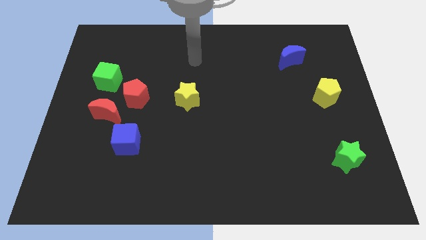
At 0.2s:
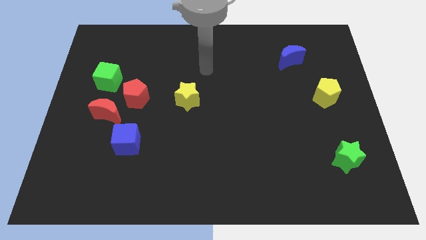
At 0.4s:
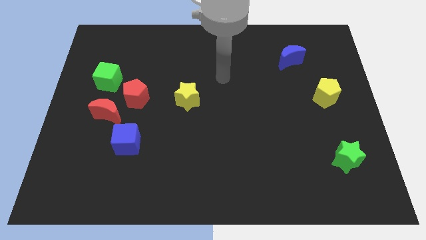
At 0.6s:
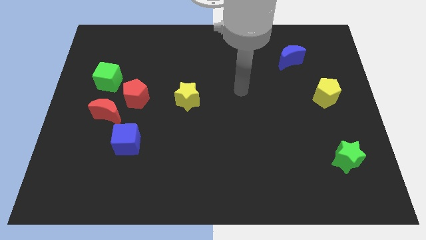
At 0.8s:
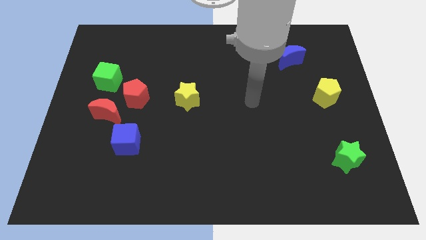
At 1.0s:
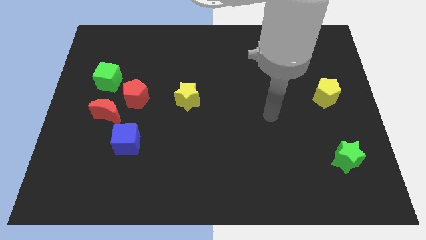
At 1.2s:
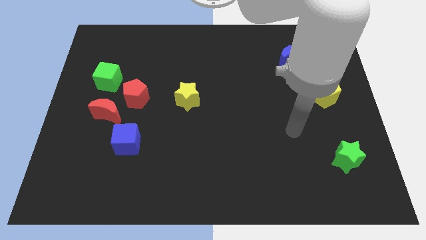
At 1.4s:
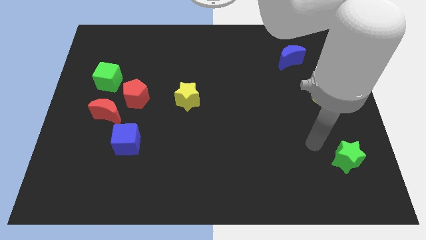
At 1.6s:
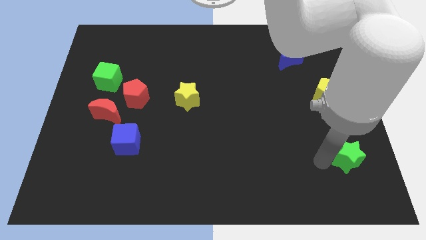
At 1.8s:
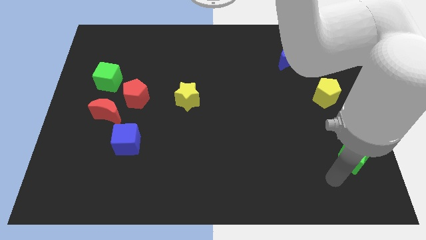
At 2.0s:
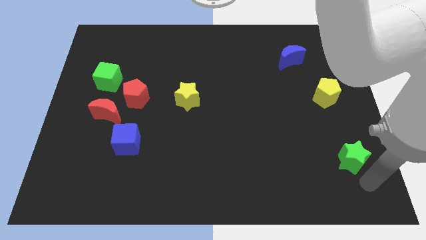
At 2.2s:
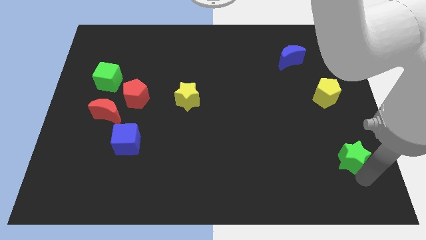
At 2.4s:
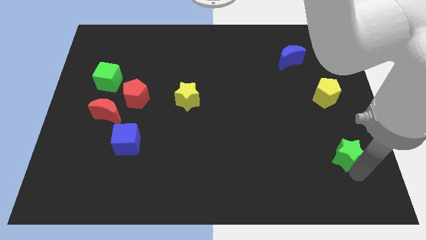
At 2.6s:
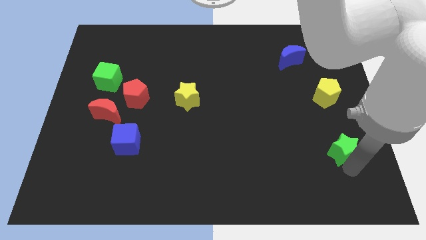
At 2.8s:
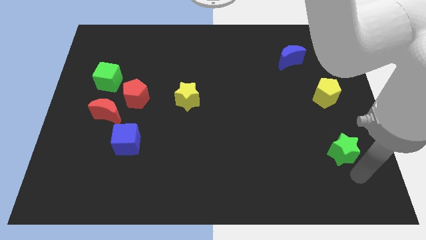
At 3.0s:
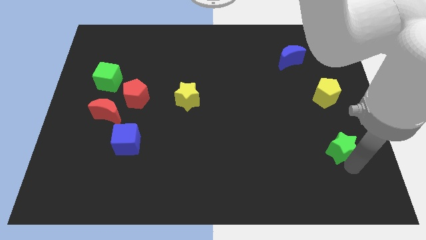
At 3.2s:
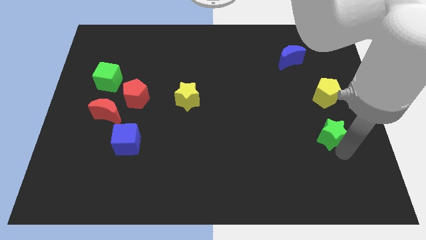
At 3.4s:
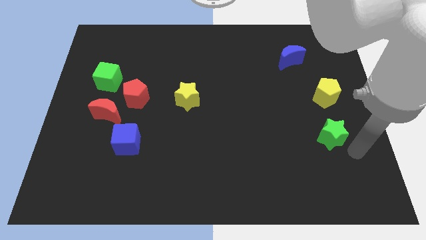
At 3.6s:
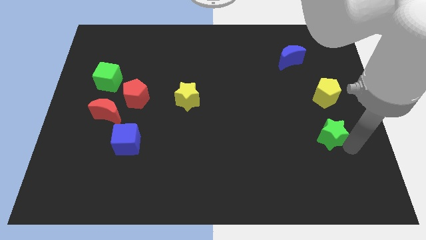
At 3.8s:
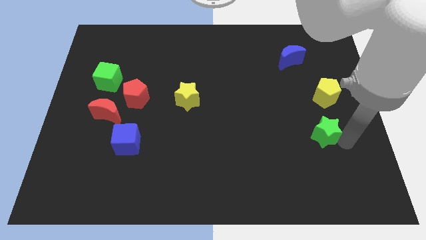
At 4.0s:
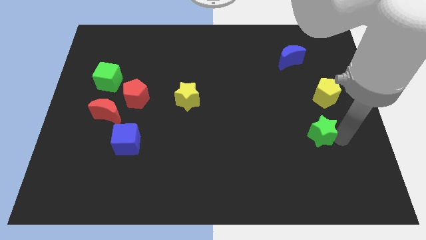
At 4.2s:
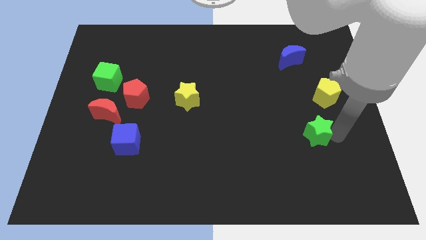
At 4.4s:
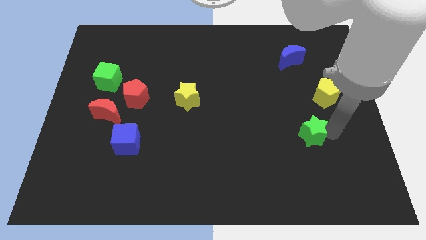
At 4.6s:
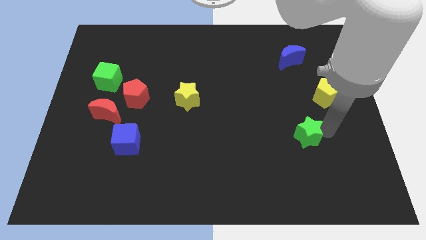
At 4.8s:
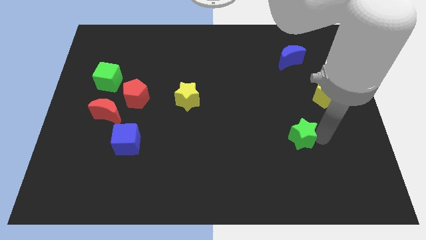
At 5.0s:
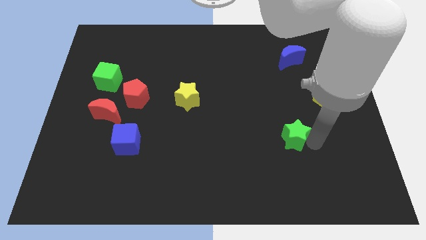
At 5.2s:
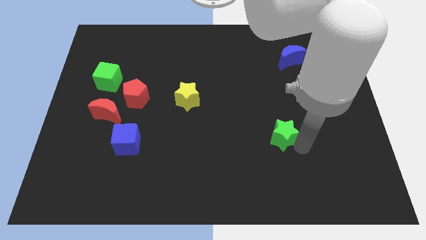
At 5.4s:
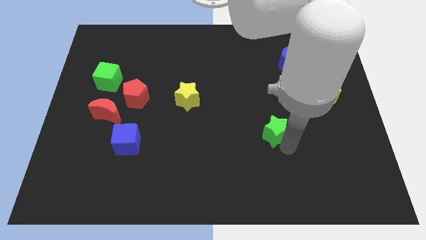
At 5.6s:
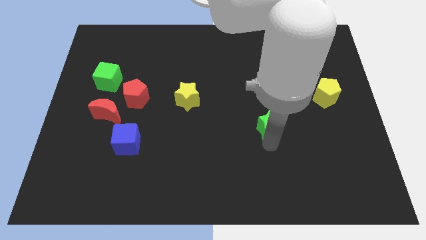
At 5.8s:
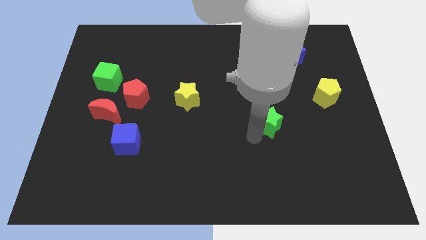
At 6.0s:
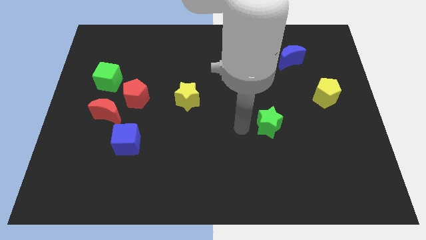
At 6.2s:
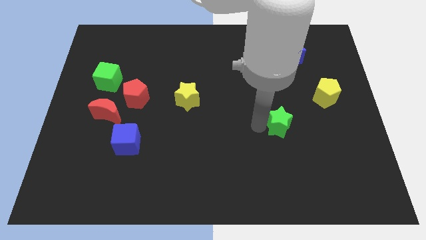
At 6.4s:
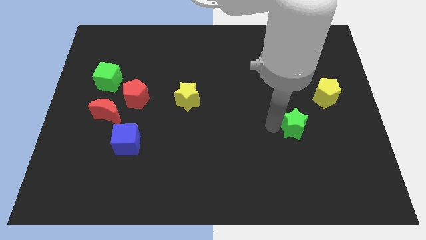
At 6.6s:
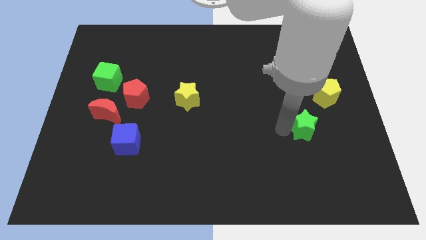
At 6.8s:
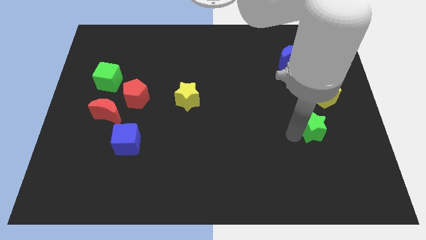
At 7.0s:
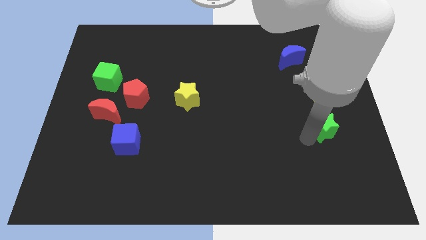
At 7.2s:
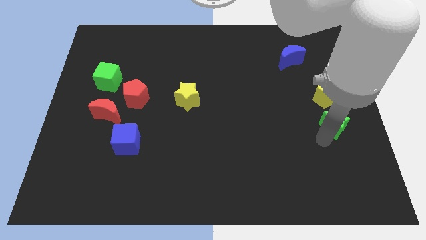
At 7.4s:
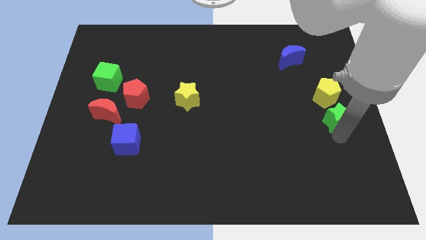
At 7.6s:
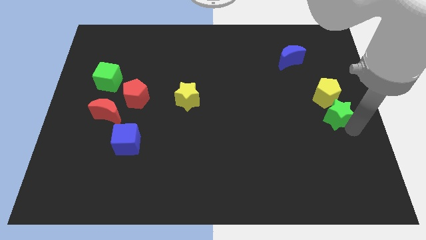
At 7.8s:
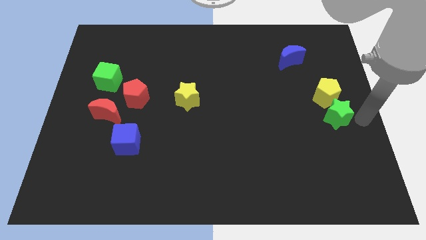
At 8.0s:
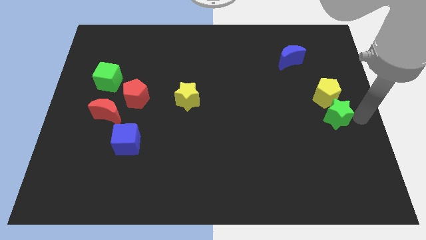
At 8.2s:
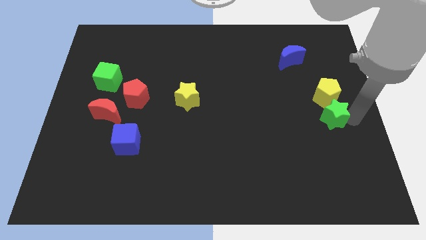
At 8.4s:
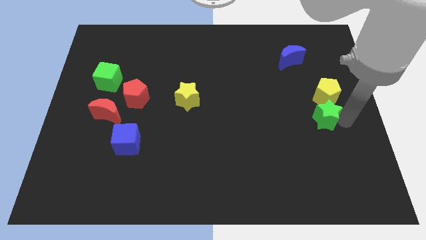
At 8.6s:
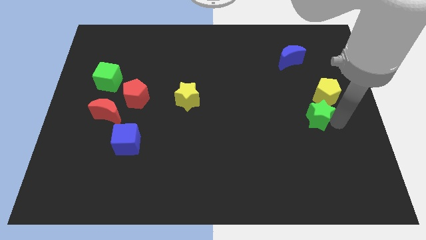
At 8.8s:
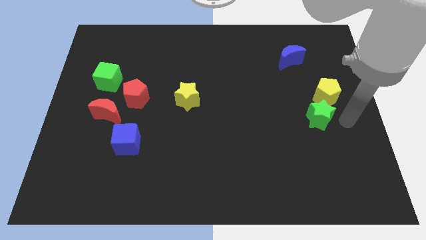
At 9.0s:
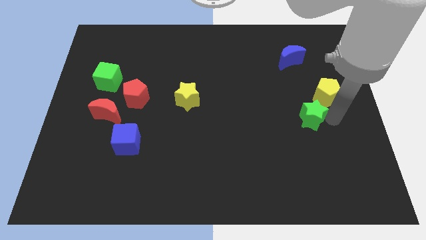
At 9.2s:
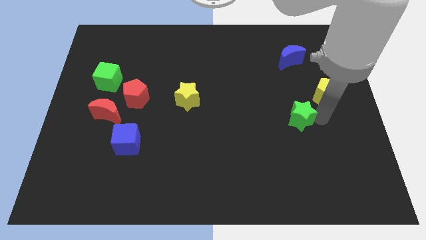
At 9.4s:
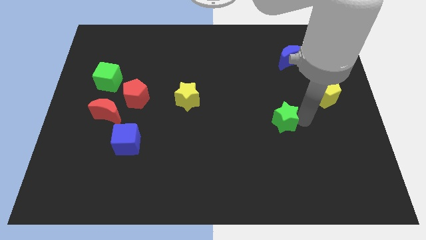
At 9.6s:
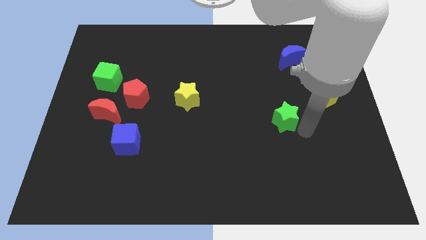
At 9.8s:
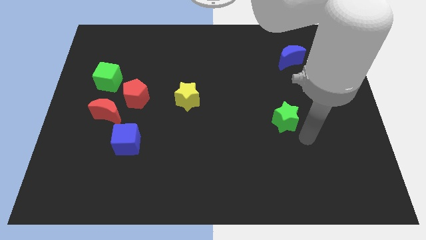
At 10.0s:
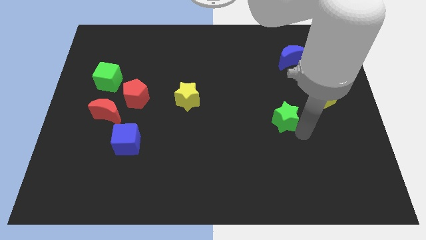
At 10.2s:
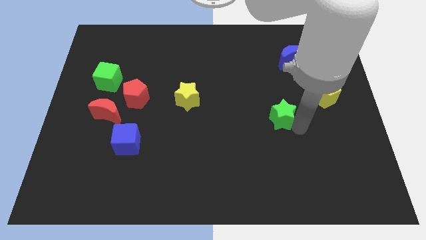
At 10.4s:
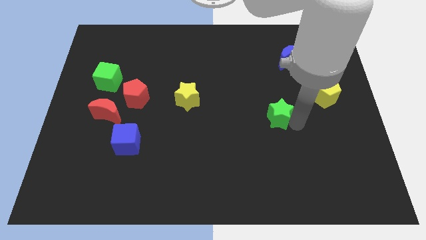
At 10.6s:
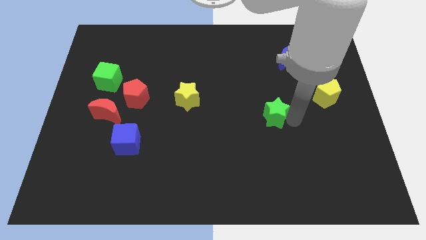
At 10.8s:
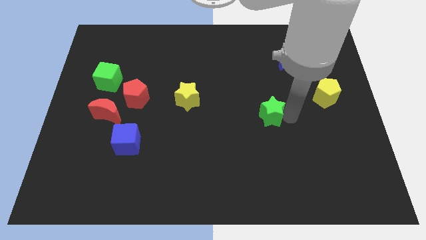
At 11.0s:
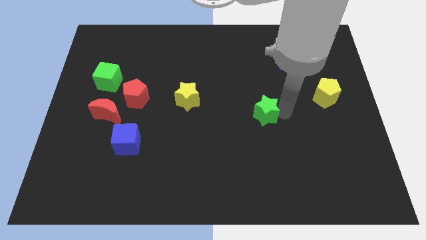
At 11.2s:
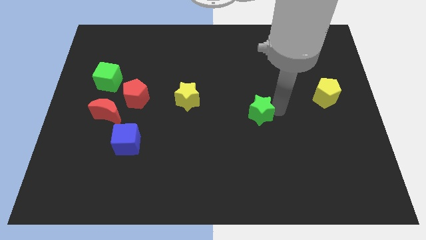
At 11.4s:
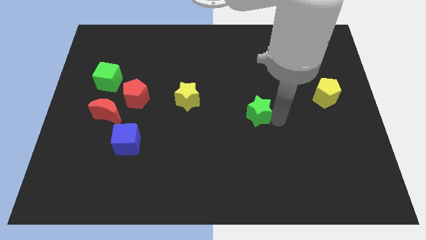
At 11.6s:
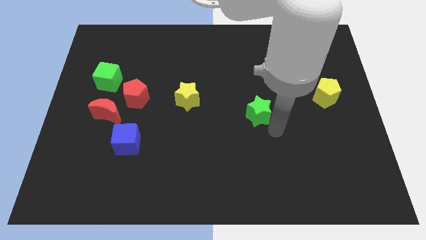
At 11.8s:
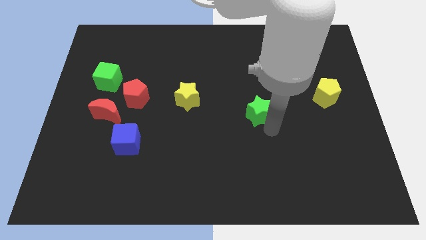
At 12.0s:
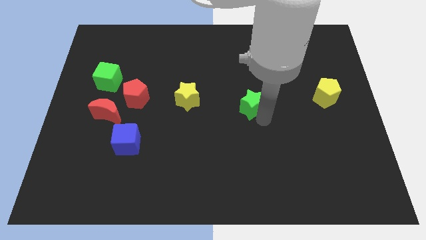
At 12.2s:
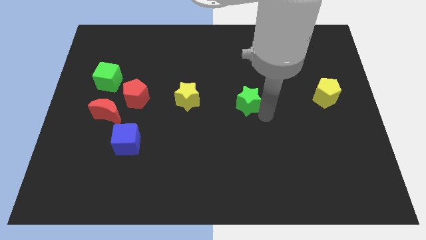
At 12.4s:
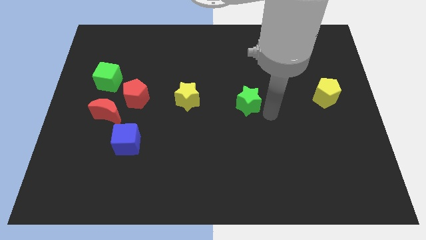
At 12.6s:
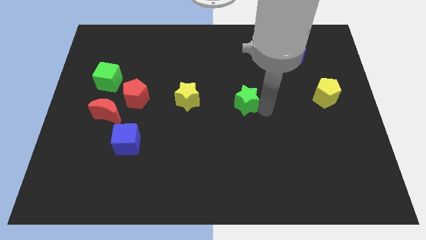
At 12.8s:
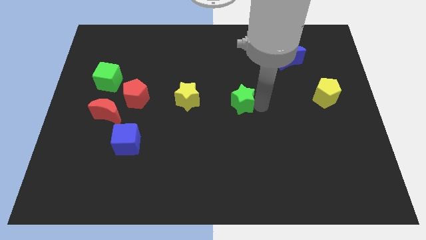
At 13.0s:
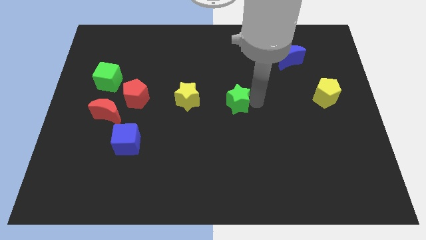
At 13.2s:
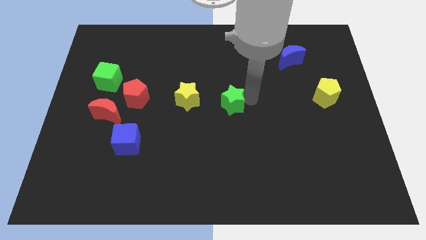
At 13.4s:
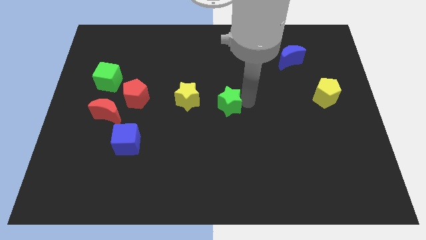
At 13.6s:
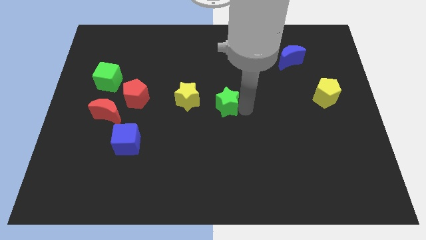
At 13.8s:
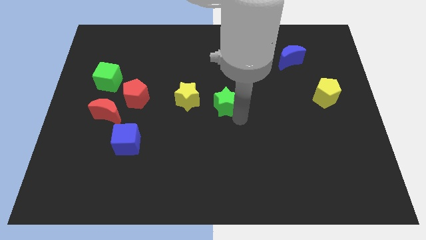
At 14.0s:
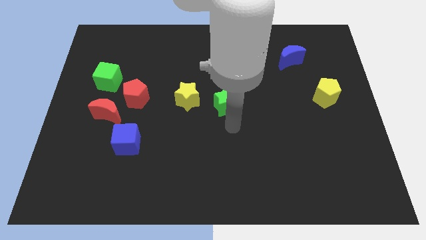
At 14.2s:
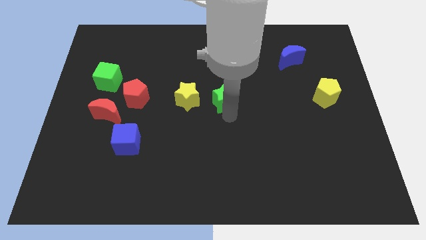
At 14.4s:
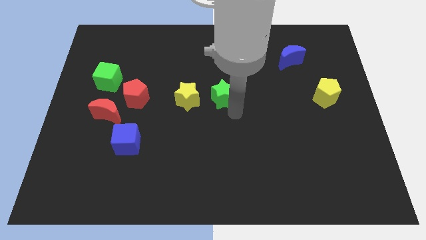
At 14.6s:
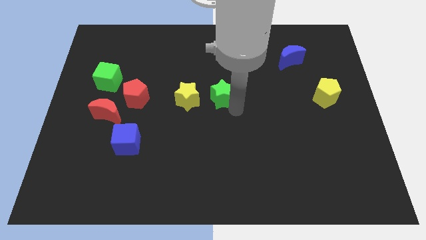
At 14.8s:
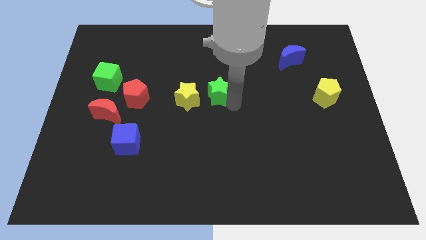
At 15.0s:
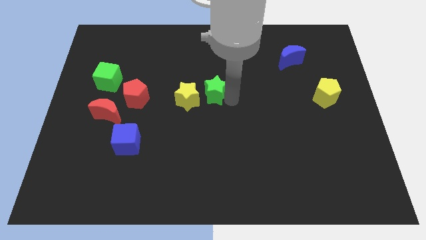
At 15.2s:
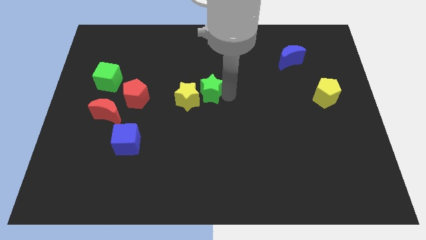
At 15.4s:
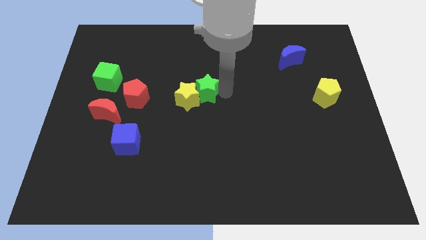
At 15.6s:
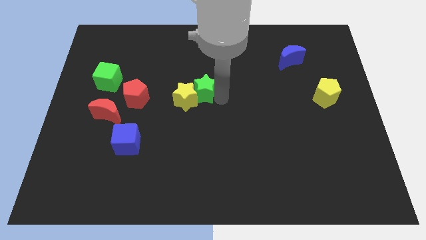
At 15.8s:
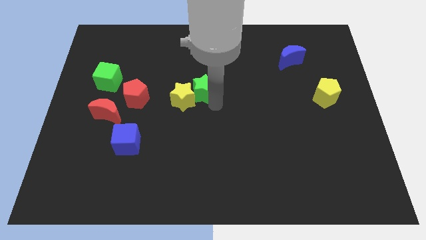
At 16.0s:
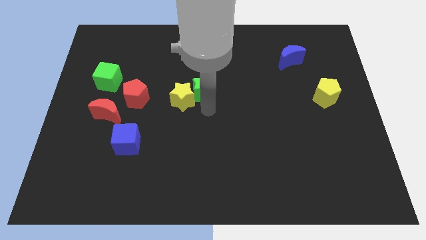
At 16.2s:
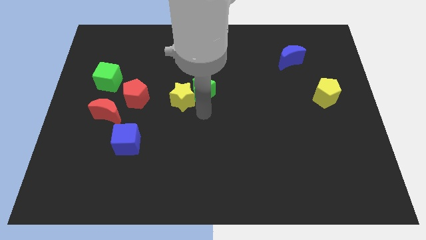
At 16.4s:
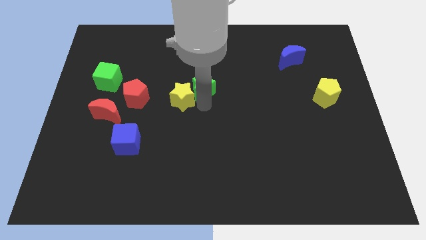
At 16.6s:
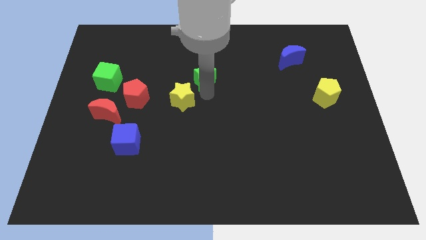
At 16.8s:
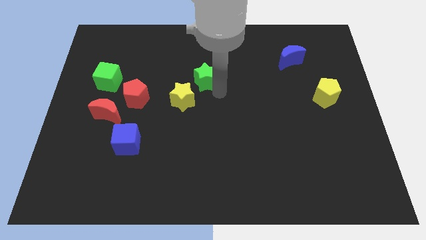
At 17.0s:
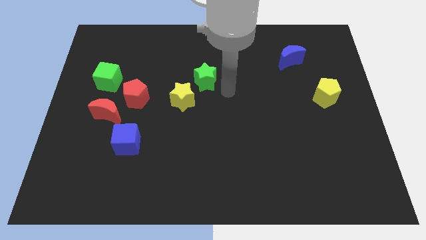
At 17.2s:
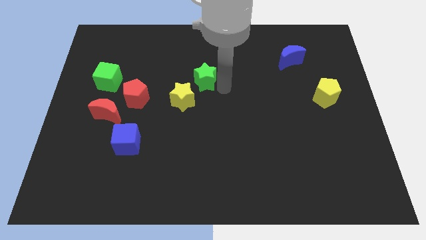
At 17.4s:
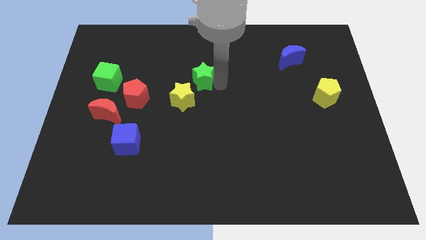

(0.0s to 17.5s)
put the green star to the top of the yellow star
